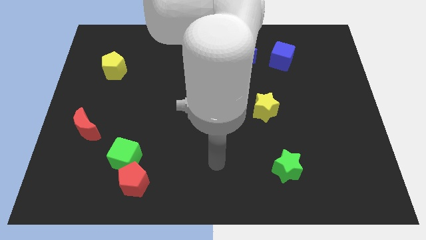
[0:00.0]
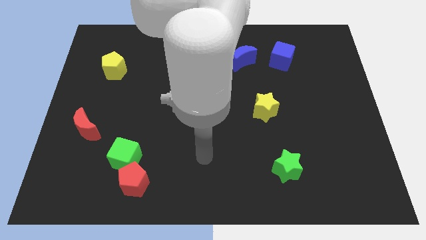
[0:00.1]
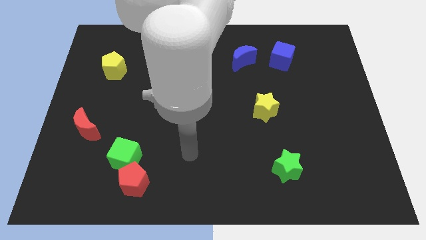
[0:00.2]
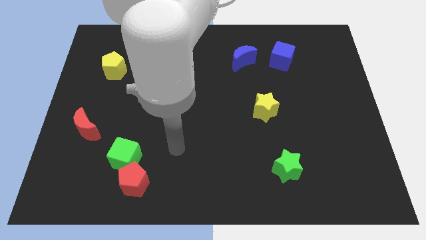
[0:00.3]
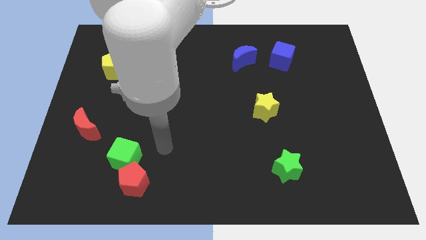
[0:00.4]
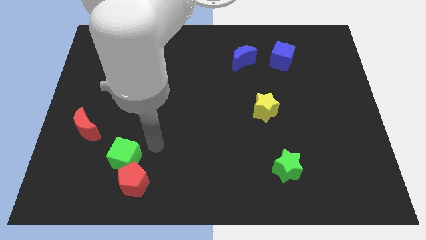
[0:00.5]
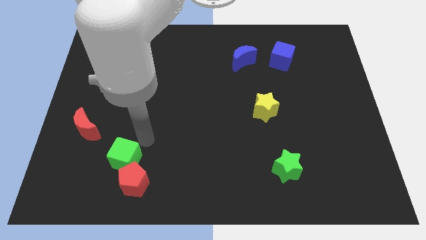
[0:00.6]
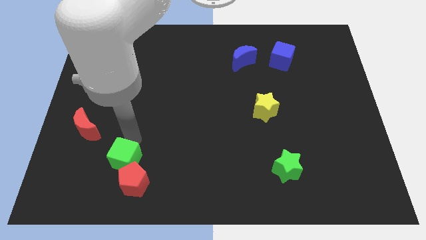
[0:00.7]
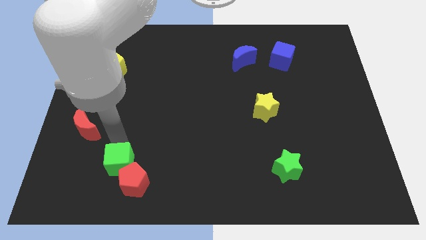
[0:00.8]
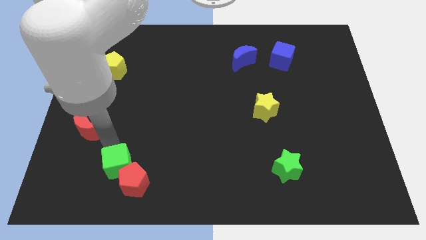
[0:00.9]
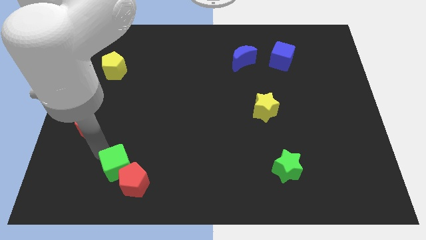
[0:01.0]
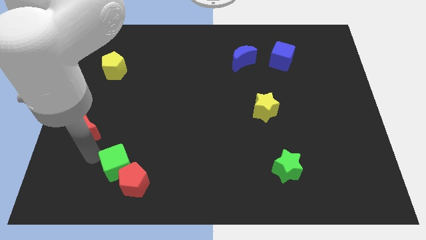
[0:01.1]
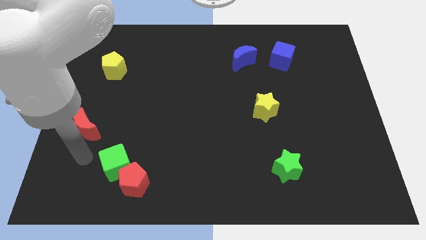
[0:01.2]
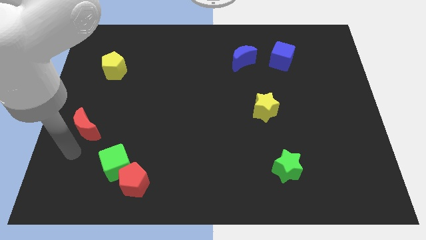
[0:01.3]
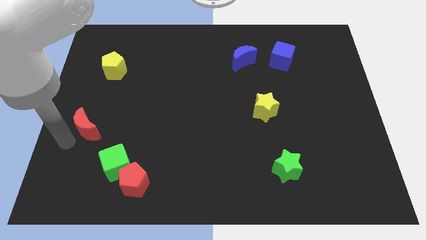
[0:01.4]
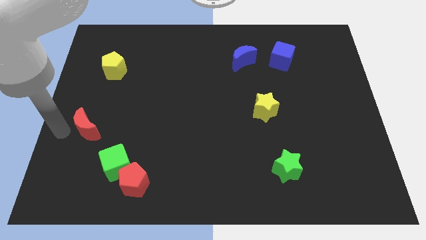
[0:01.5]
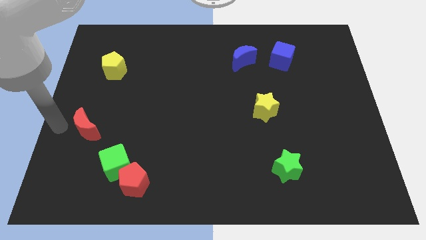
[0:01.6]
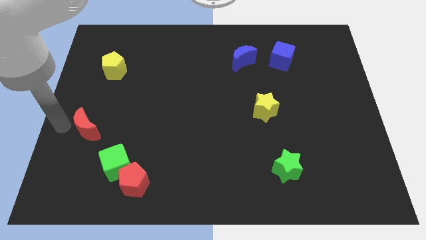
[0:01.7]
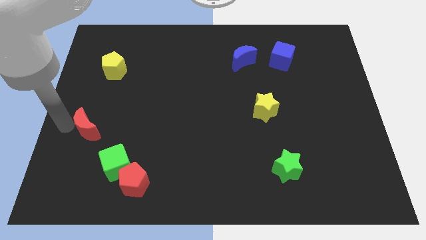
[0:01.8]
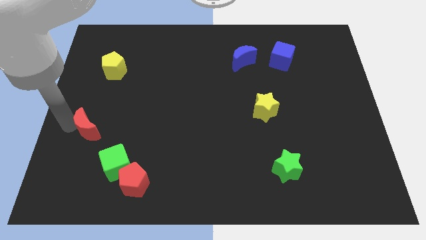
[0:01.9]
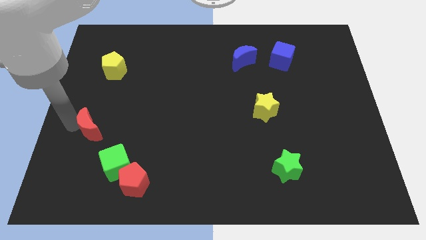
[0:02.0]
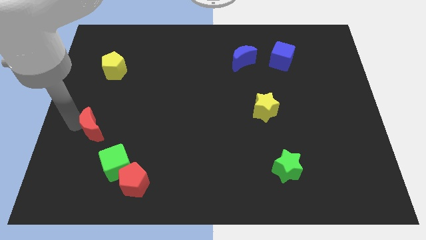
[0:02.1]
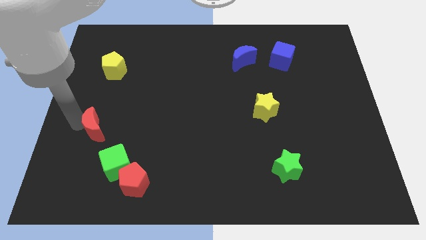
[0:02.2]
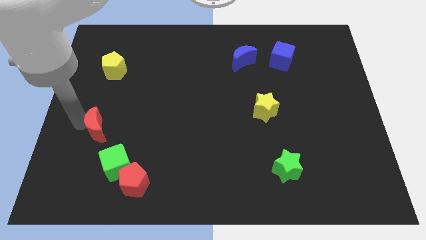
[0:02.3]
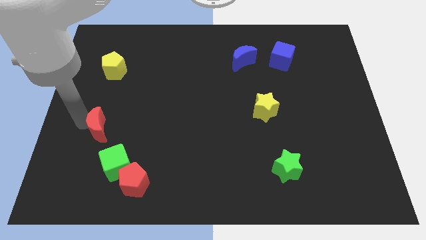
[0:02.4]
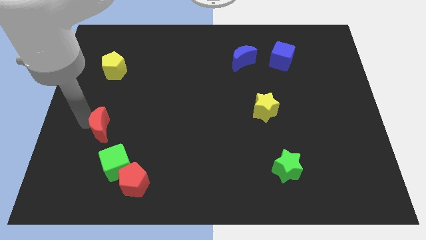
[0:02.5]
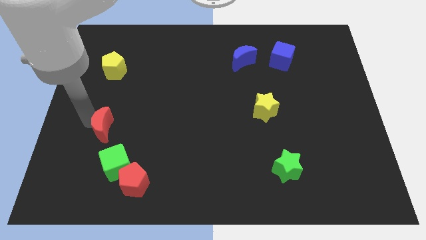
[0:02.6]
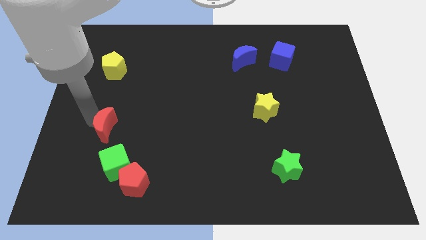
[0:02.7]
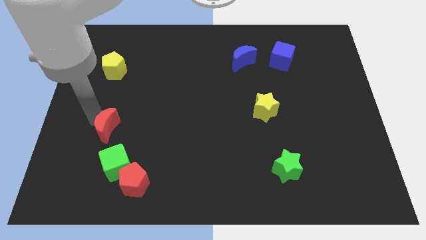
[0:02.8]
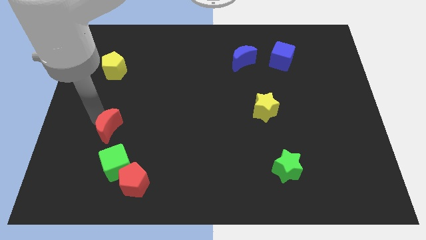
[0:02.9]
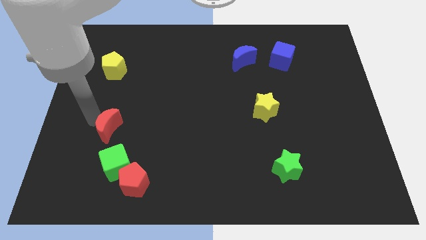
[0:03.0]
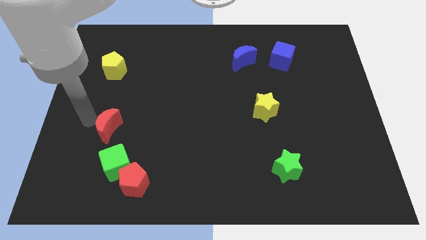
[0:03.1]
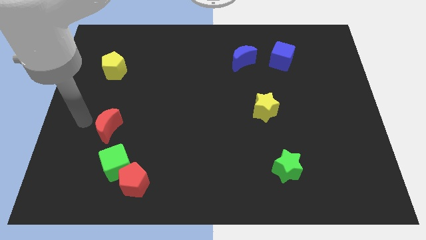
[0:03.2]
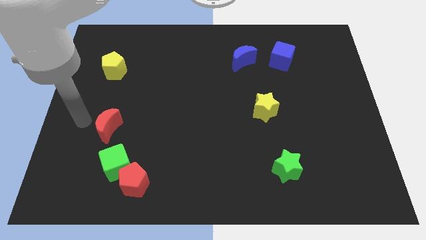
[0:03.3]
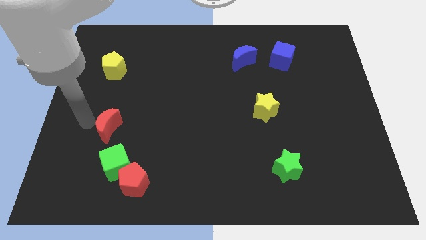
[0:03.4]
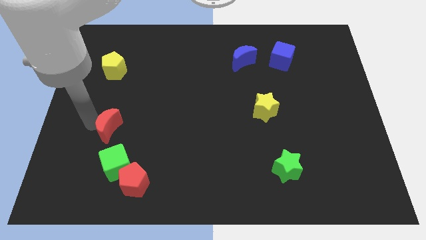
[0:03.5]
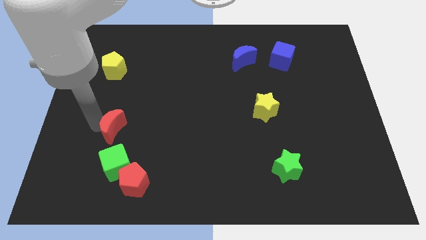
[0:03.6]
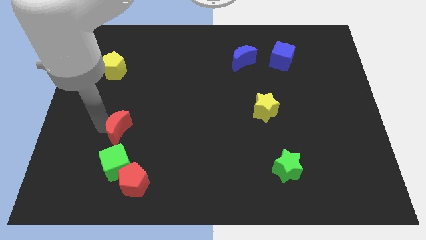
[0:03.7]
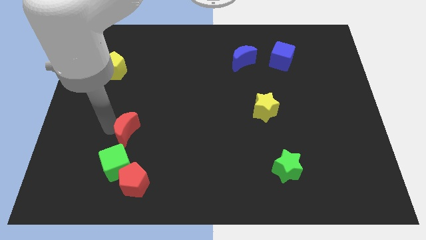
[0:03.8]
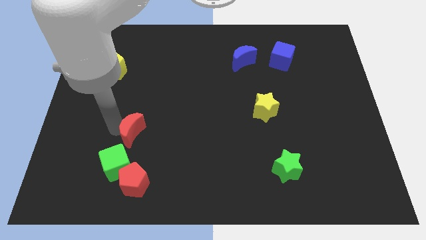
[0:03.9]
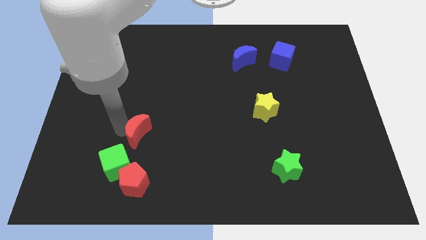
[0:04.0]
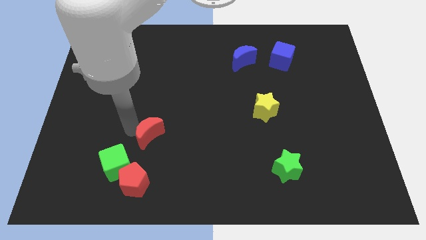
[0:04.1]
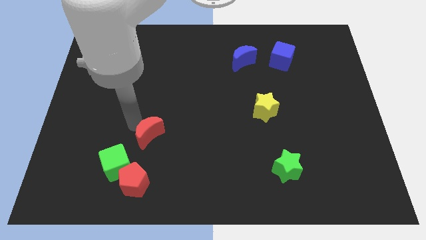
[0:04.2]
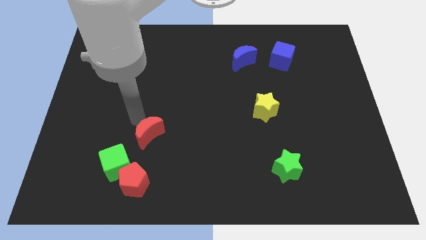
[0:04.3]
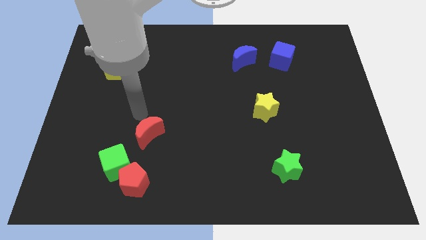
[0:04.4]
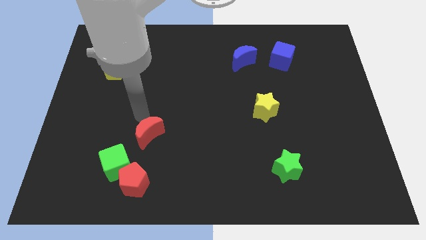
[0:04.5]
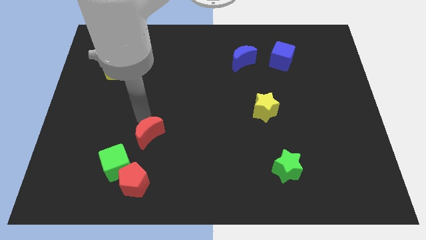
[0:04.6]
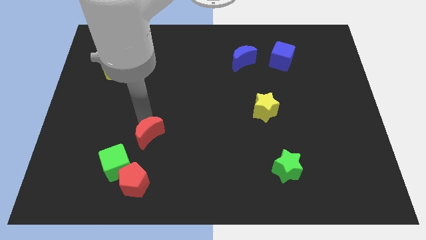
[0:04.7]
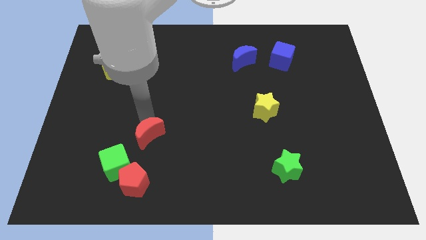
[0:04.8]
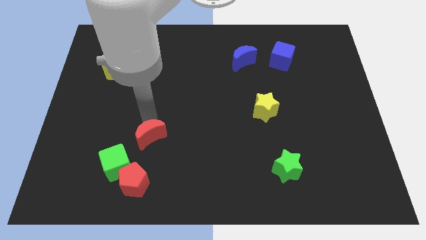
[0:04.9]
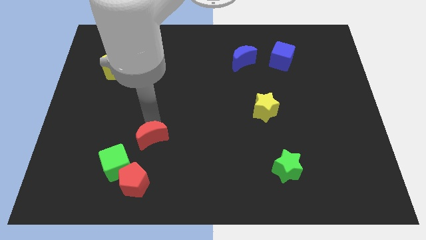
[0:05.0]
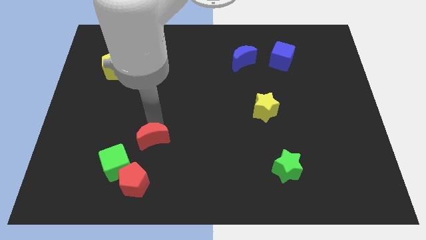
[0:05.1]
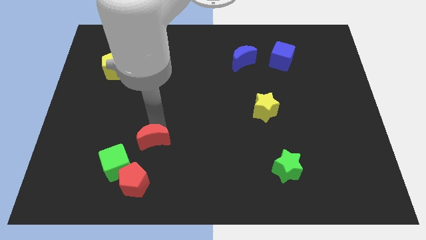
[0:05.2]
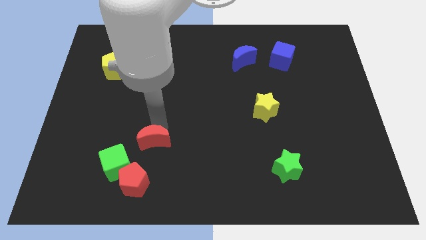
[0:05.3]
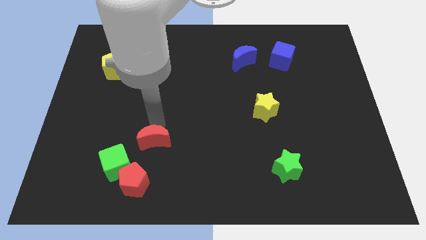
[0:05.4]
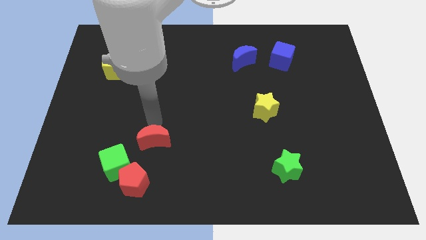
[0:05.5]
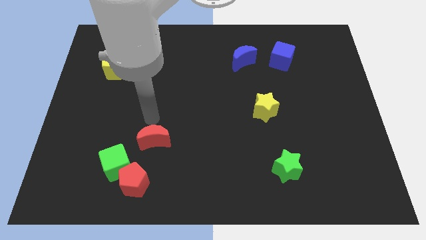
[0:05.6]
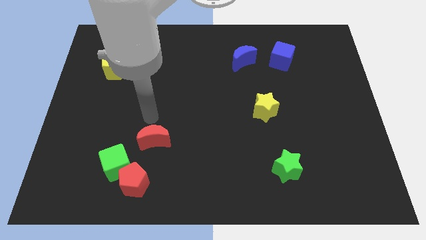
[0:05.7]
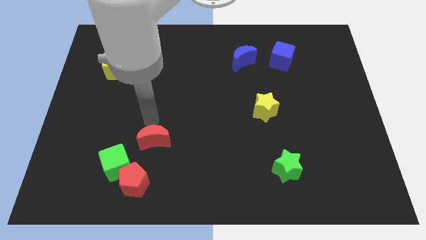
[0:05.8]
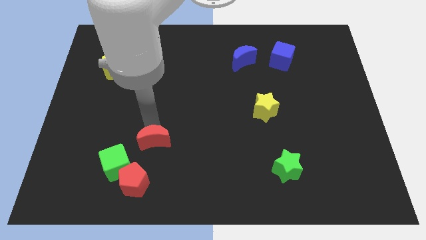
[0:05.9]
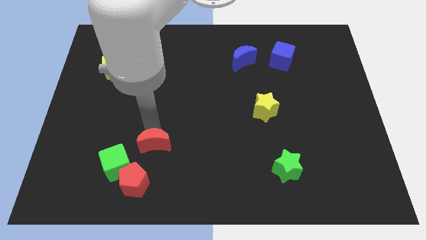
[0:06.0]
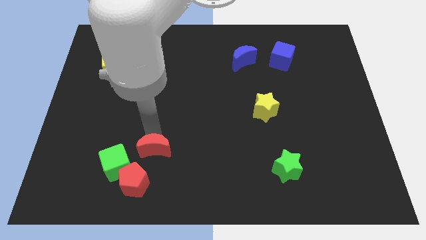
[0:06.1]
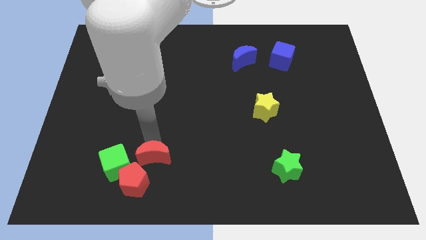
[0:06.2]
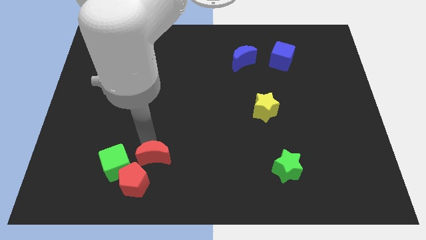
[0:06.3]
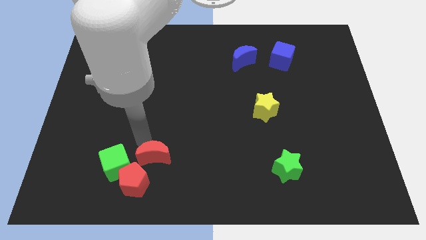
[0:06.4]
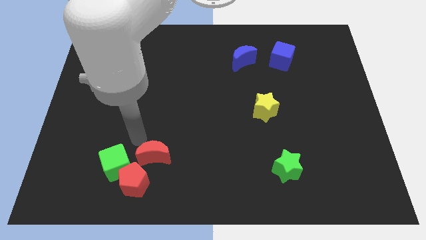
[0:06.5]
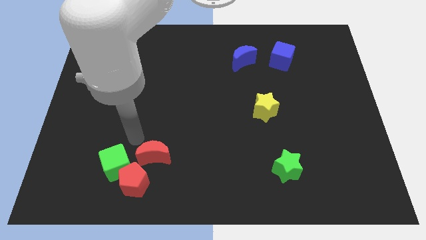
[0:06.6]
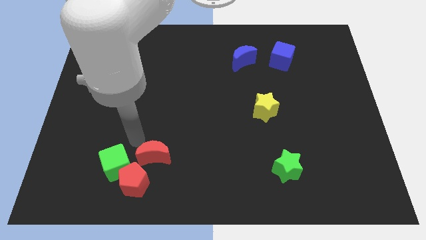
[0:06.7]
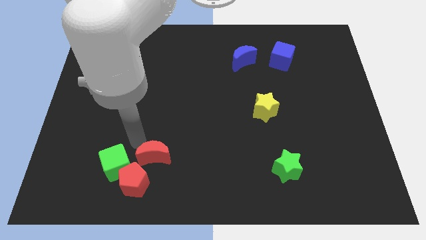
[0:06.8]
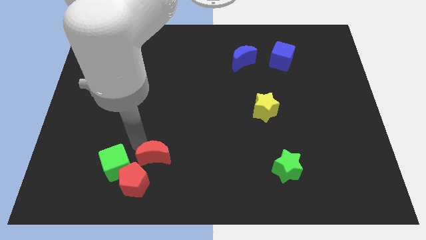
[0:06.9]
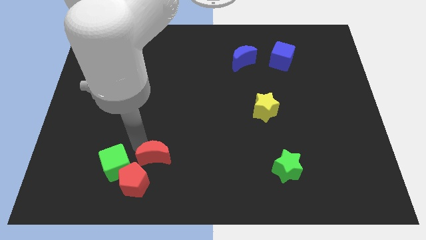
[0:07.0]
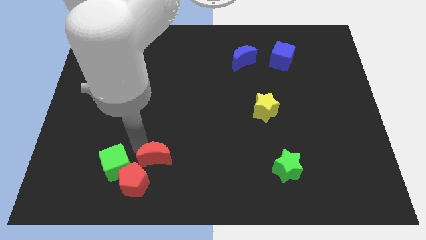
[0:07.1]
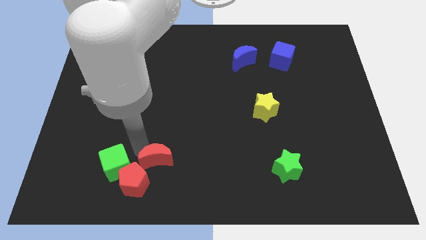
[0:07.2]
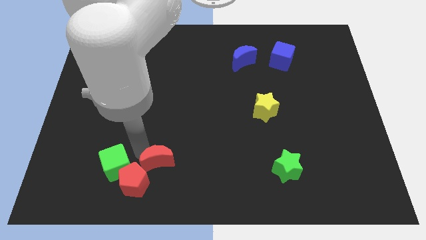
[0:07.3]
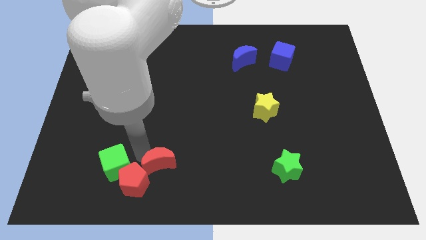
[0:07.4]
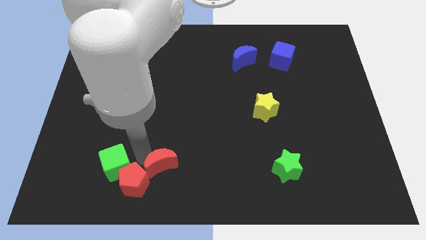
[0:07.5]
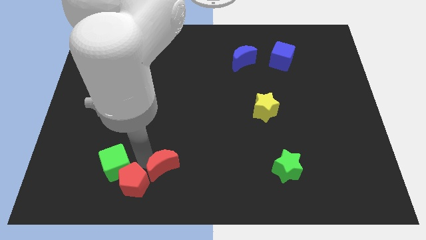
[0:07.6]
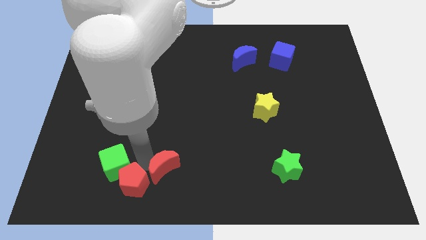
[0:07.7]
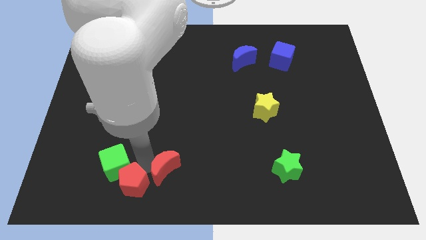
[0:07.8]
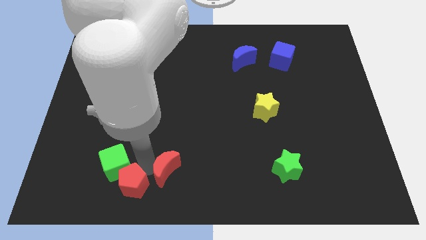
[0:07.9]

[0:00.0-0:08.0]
push the red moon to the bottom
